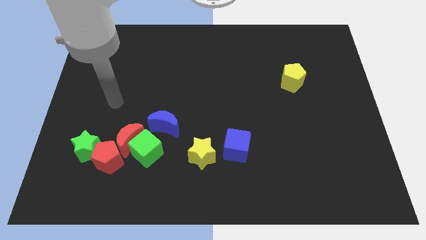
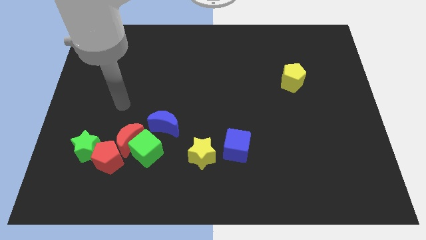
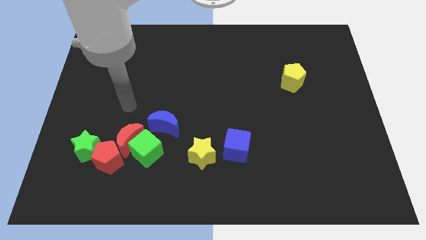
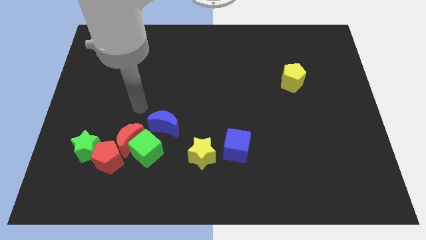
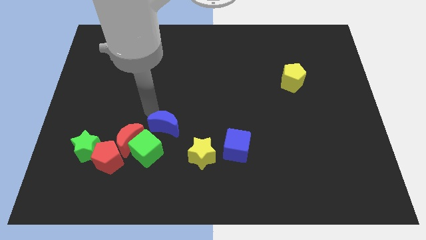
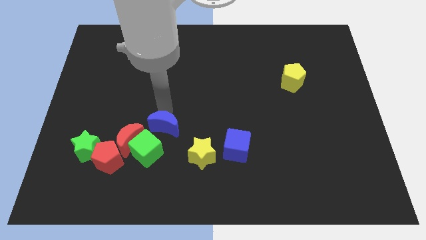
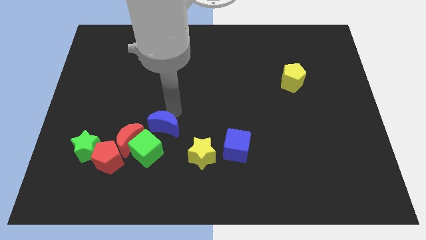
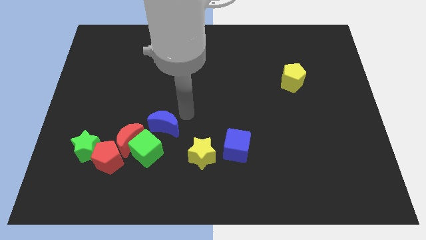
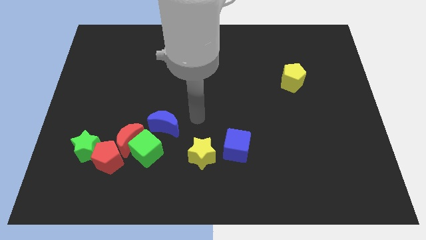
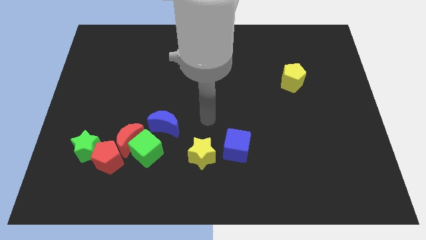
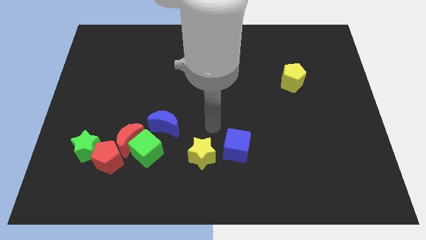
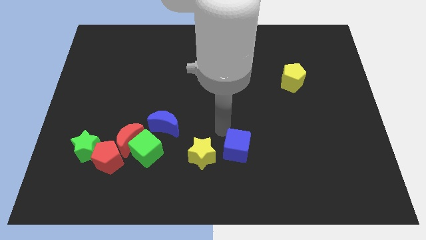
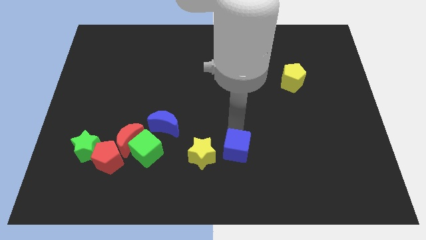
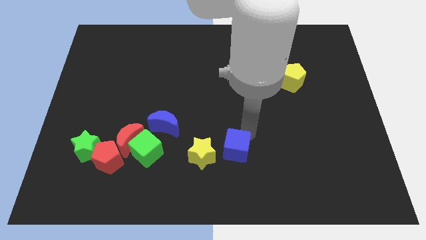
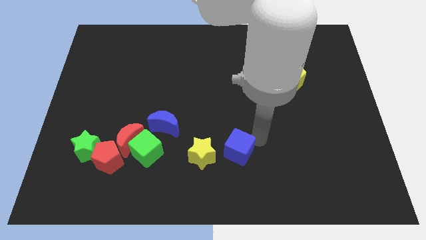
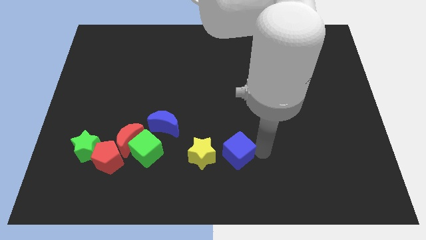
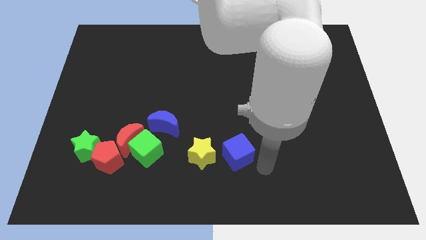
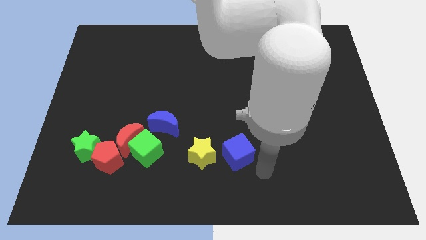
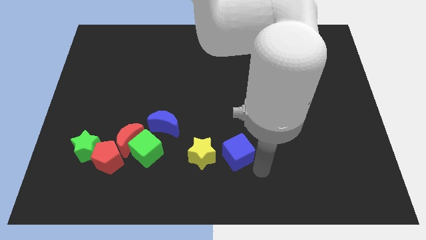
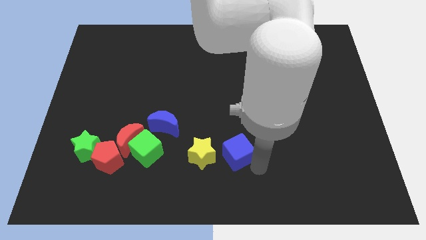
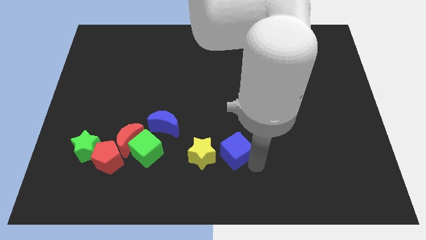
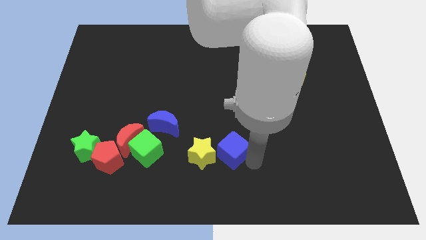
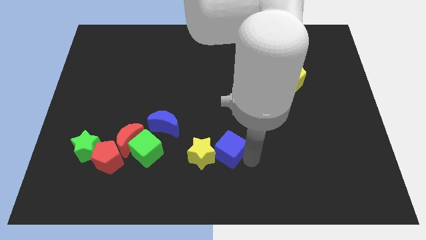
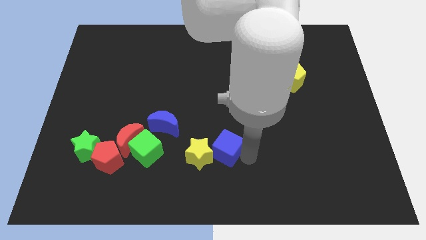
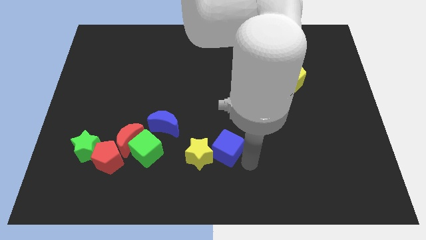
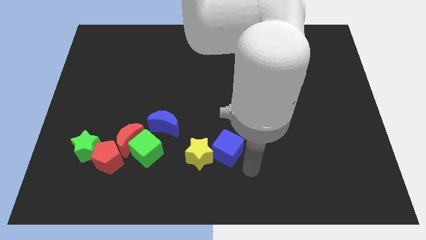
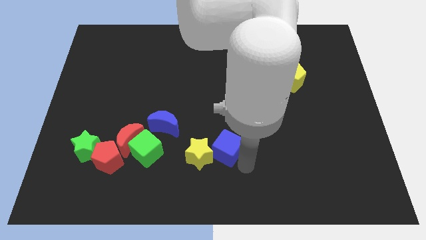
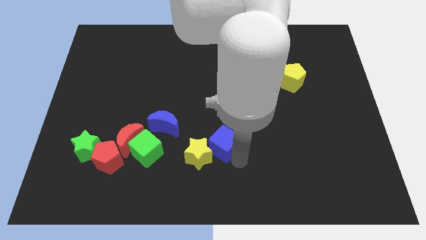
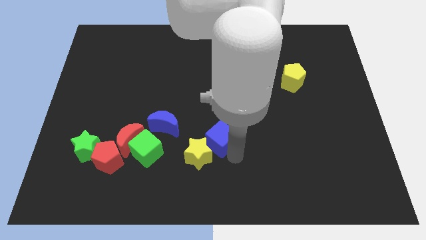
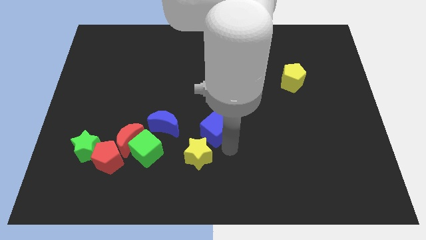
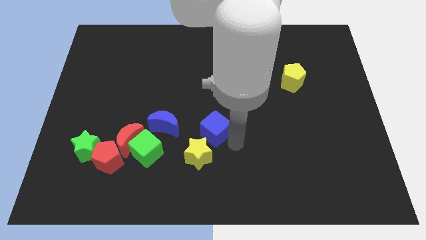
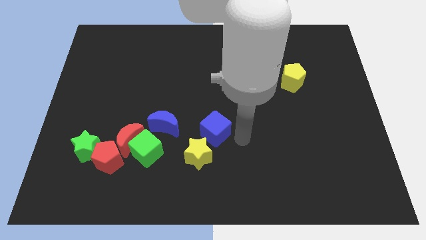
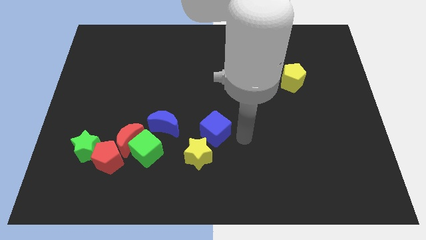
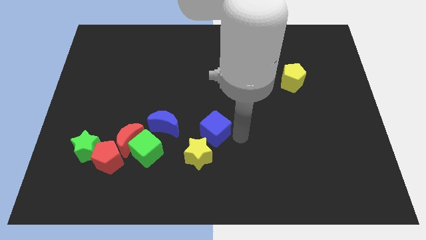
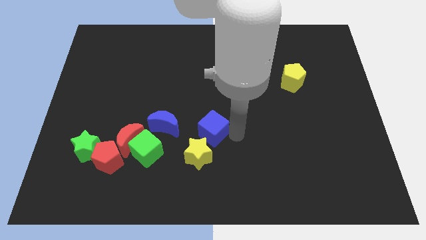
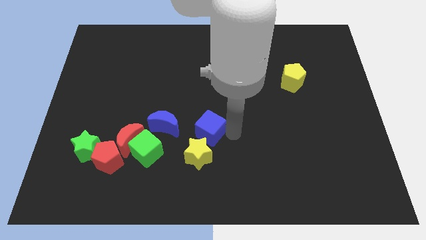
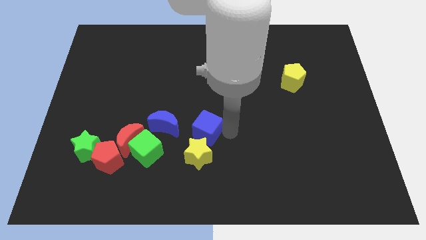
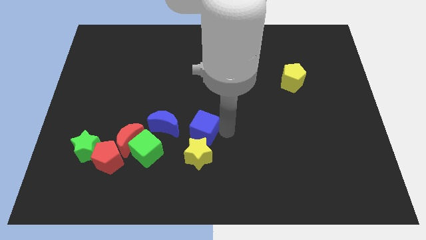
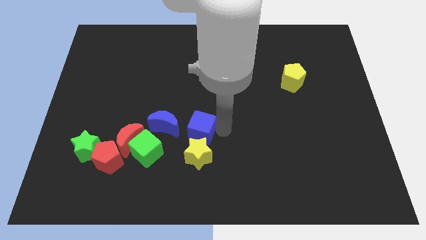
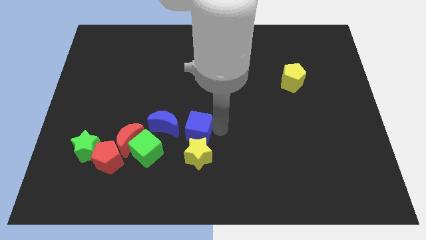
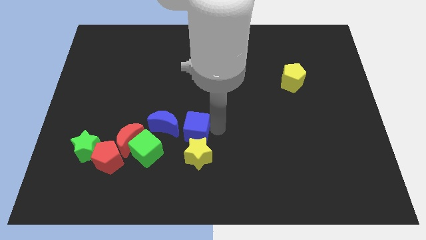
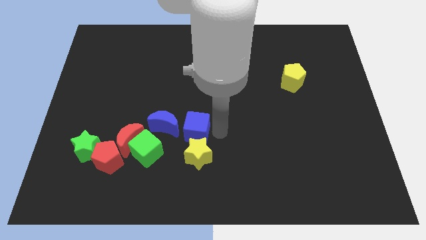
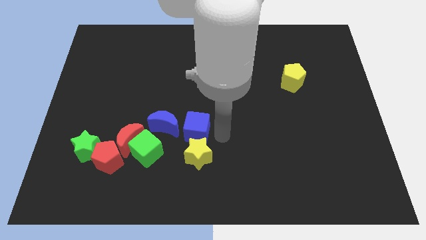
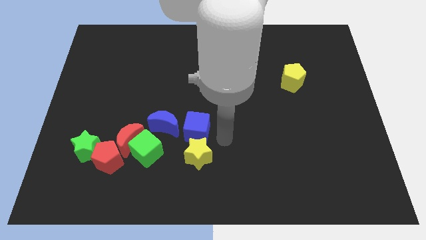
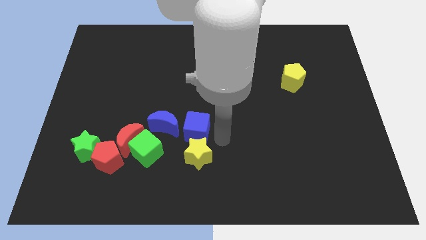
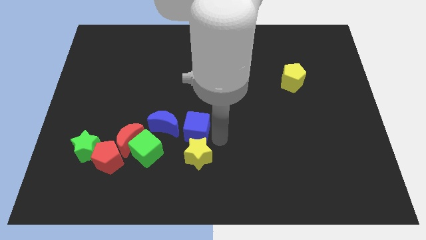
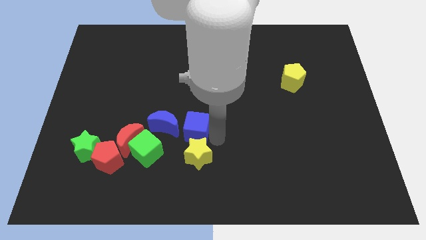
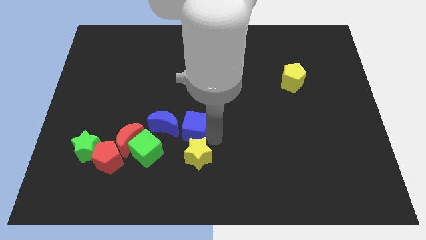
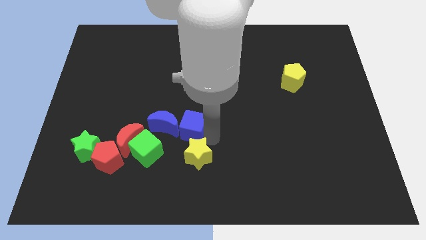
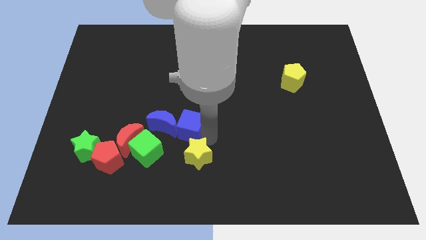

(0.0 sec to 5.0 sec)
move the blue cube towards the blue moon

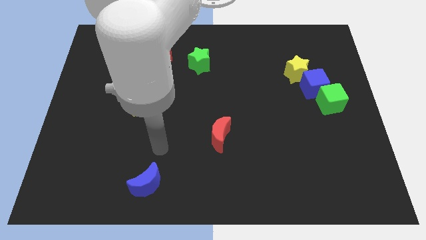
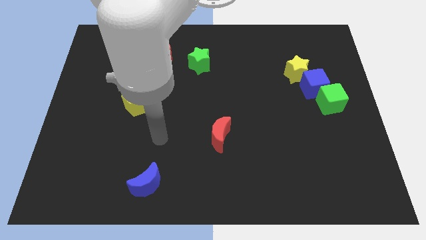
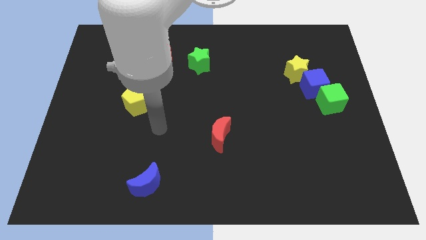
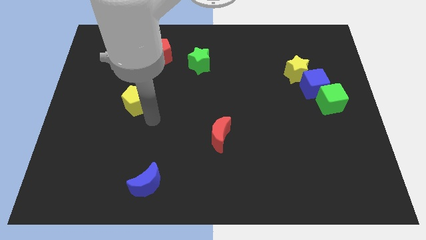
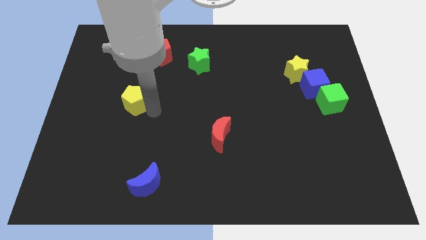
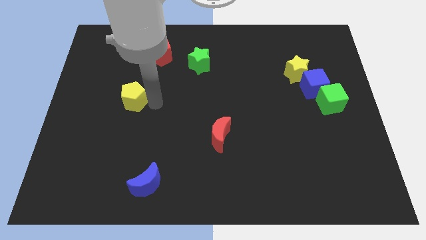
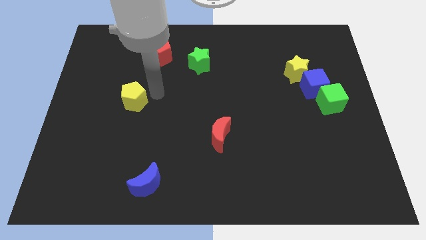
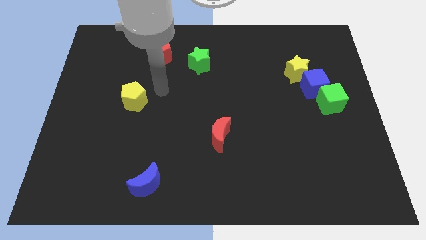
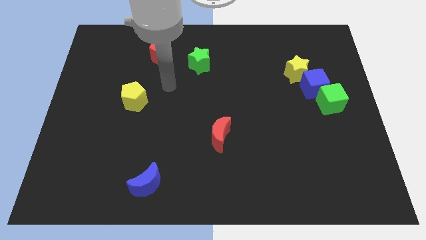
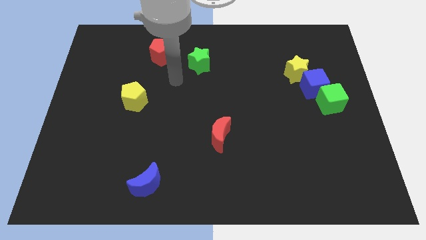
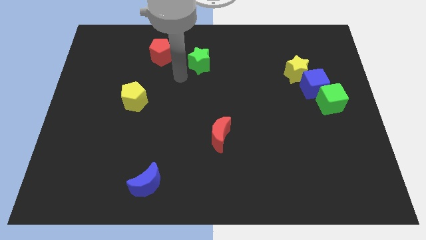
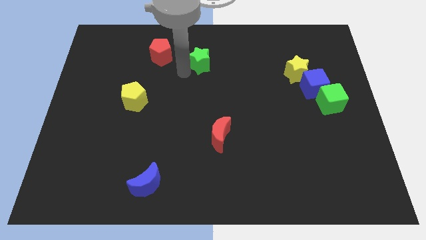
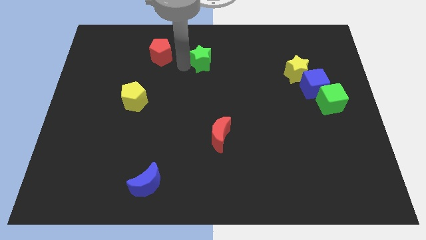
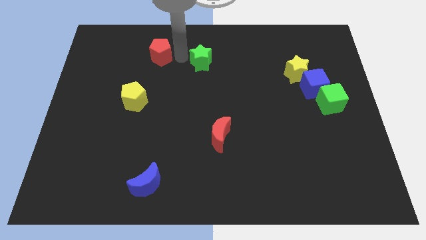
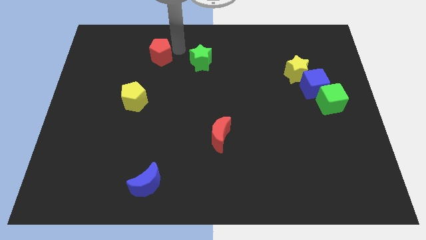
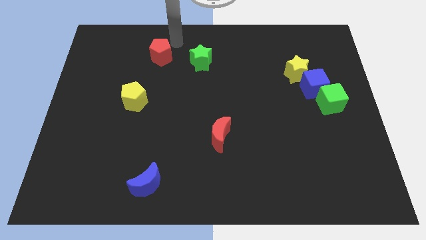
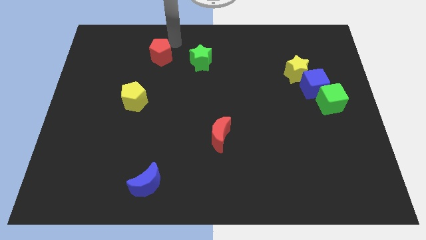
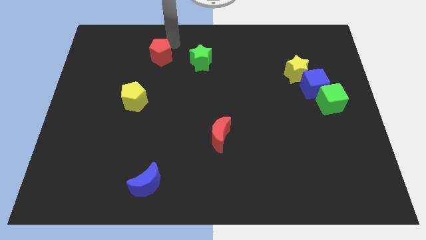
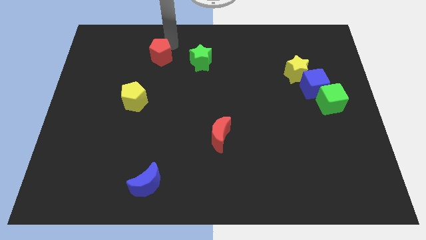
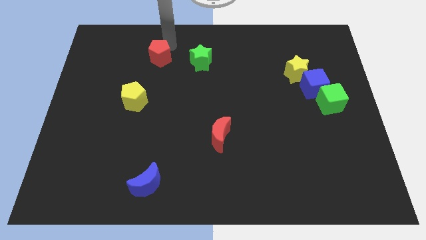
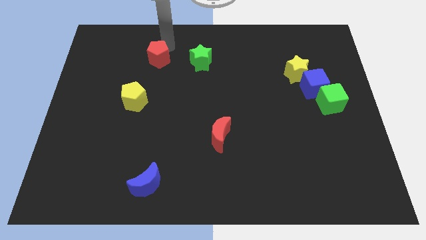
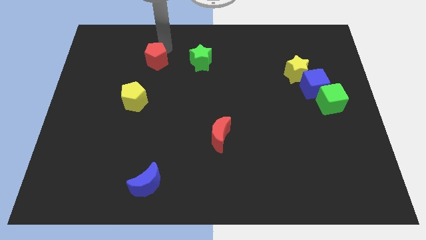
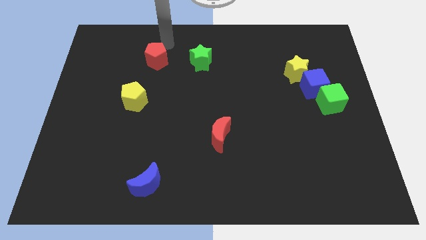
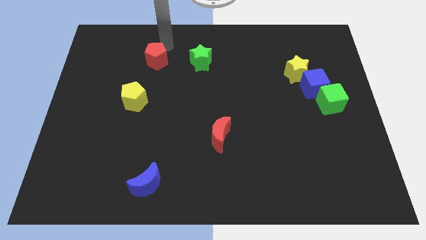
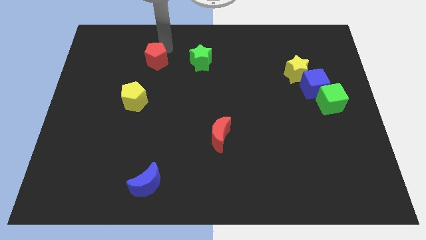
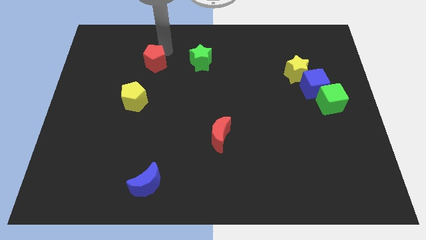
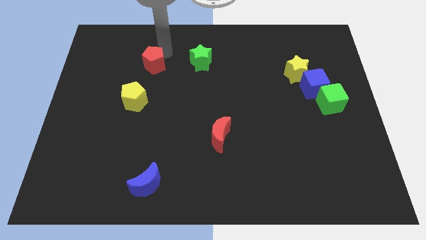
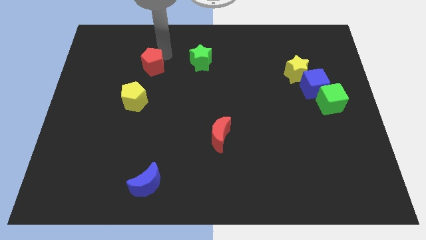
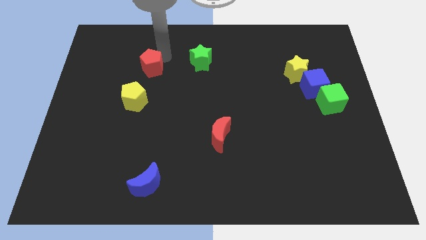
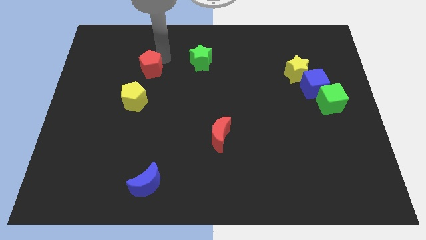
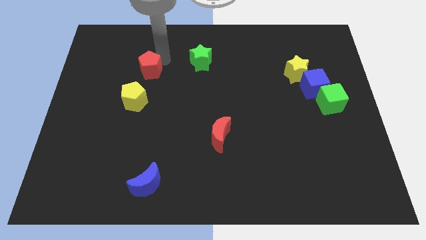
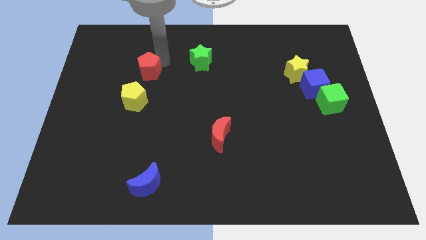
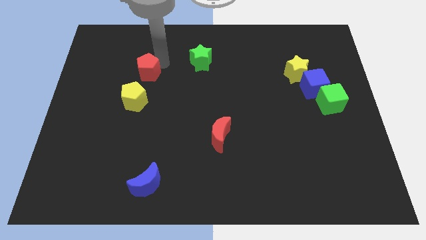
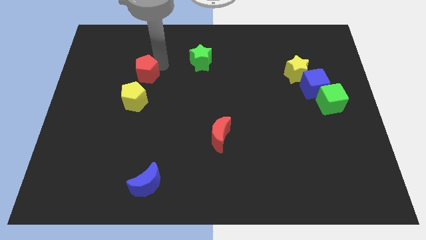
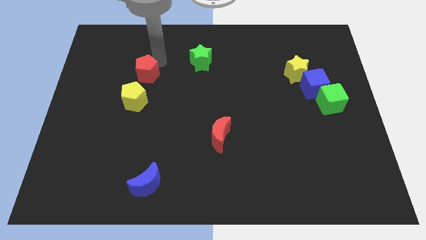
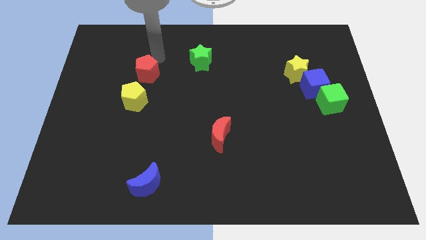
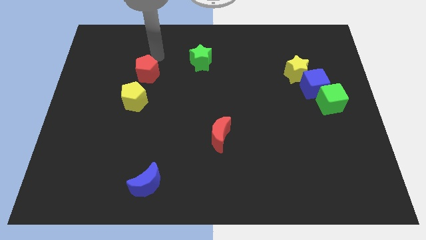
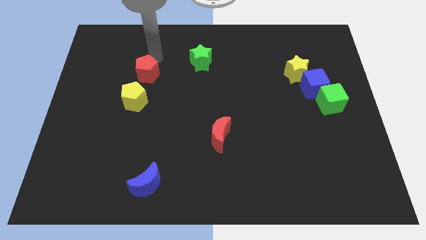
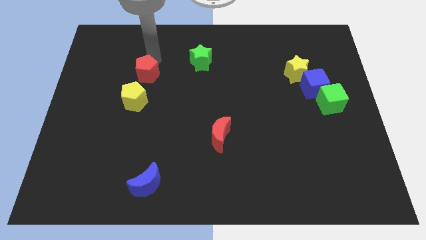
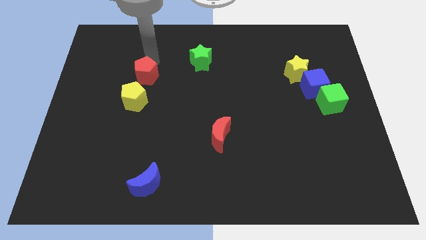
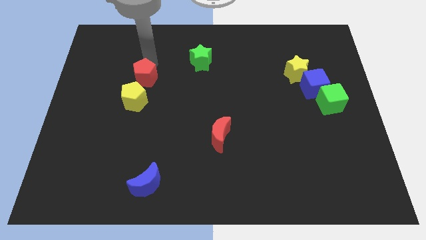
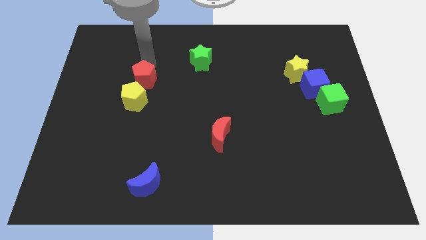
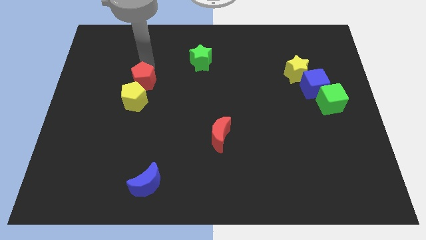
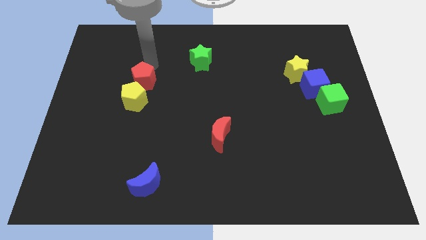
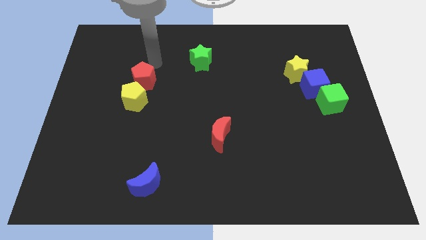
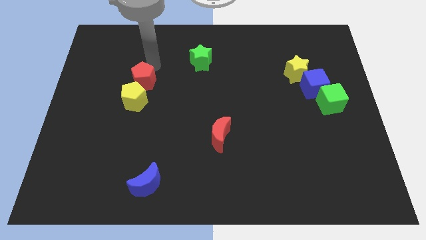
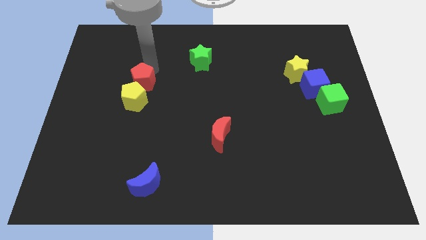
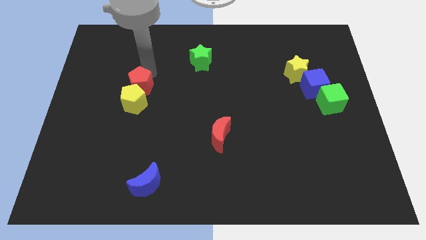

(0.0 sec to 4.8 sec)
move the red pentagon towards the yellow pentagon
